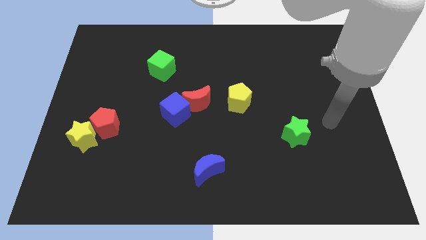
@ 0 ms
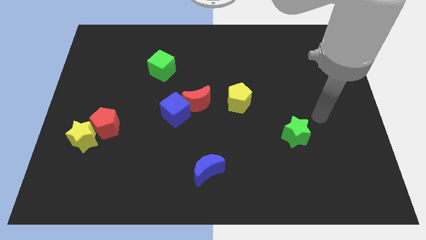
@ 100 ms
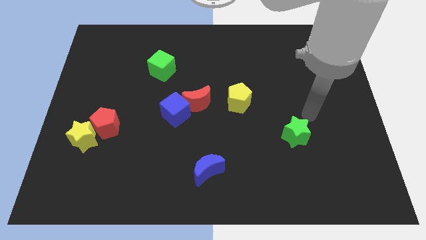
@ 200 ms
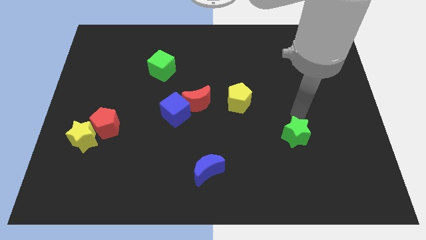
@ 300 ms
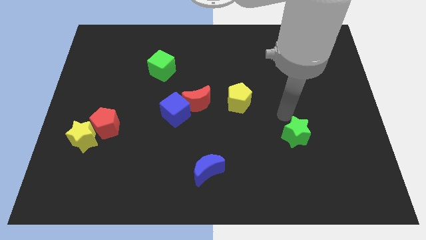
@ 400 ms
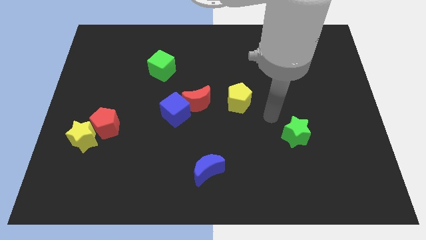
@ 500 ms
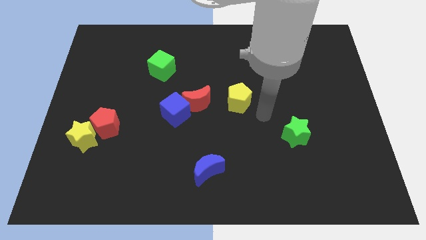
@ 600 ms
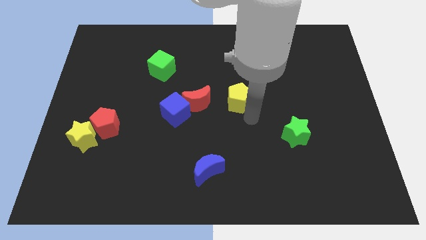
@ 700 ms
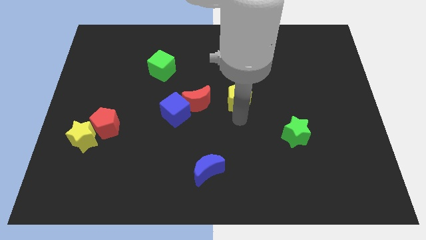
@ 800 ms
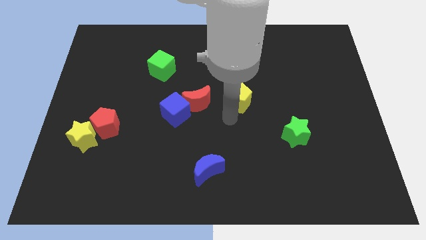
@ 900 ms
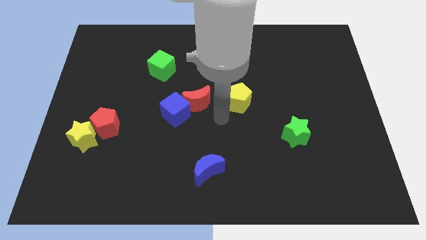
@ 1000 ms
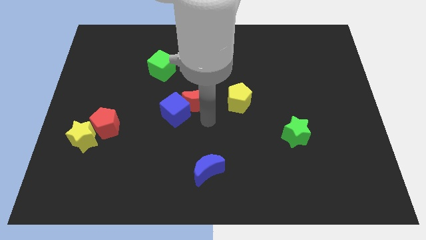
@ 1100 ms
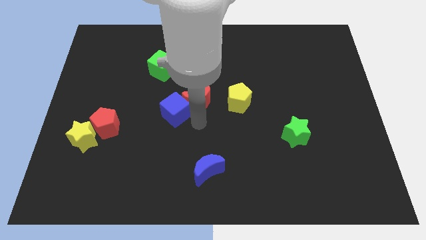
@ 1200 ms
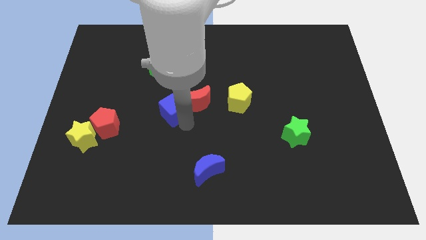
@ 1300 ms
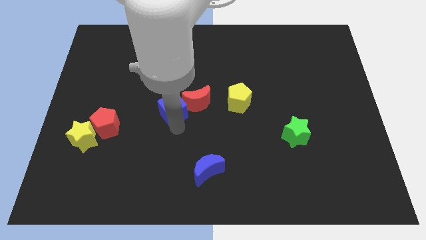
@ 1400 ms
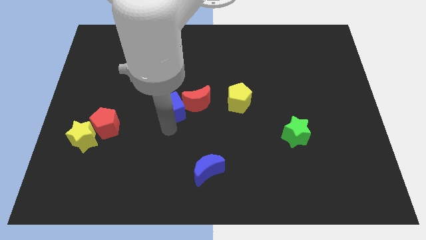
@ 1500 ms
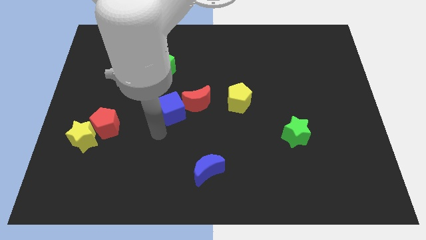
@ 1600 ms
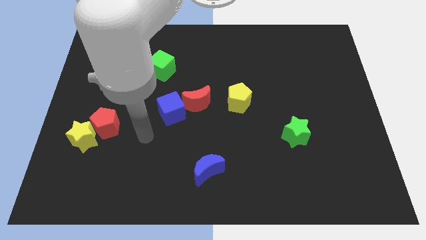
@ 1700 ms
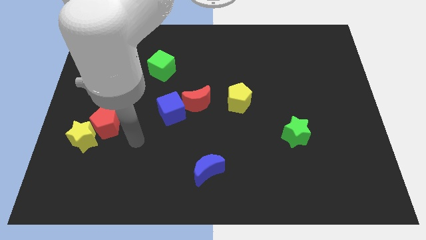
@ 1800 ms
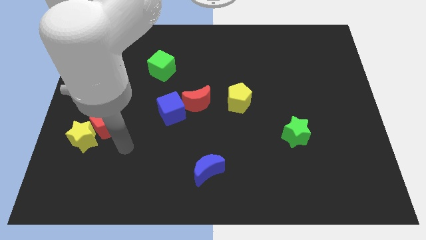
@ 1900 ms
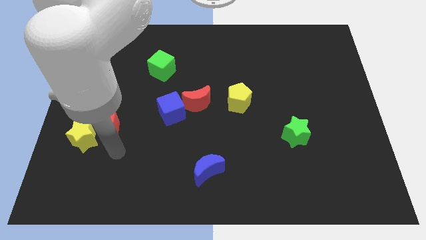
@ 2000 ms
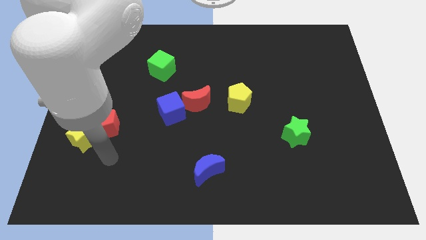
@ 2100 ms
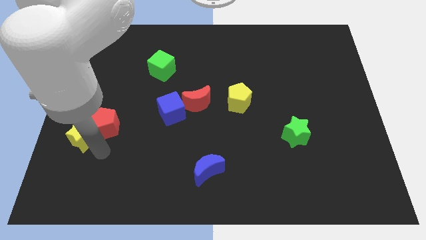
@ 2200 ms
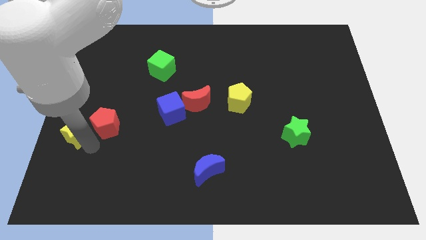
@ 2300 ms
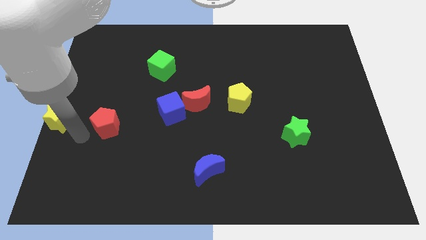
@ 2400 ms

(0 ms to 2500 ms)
pull the red pentagon apart from the yellow star

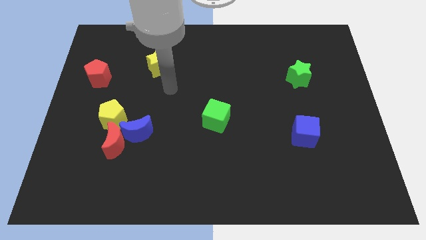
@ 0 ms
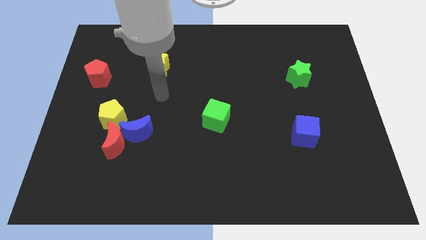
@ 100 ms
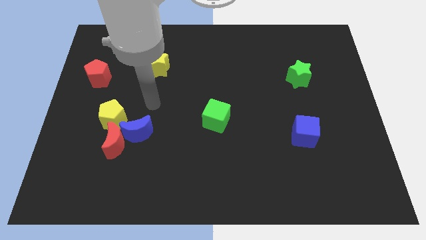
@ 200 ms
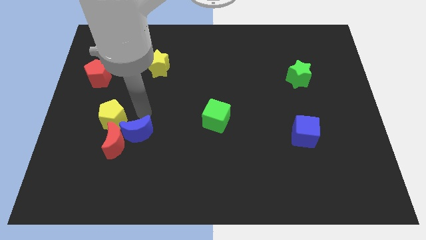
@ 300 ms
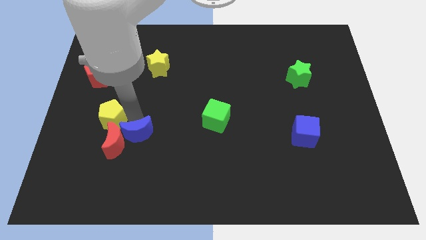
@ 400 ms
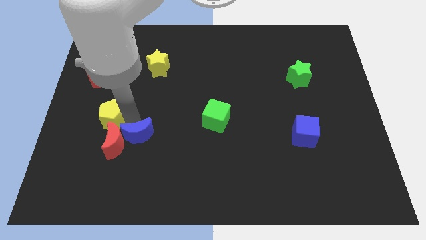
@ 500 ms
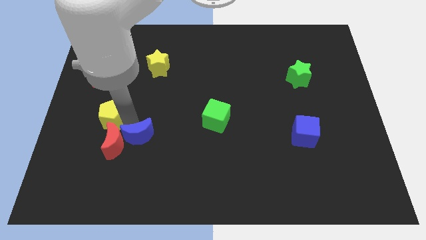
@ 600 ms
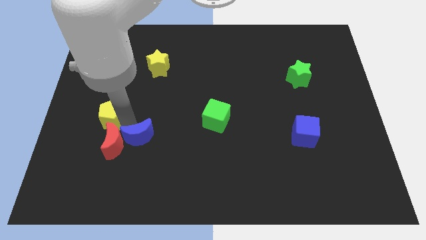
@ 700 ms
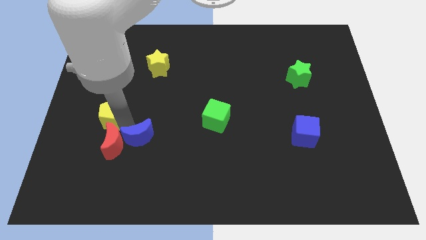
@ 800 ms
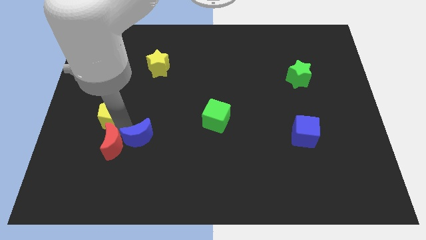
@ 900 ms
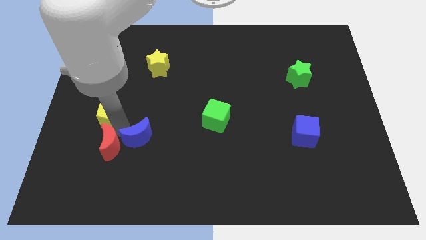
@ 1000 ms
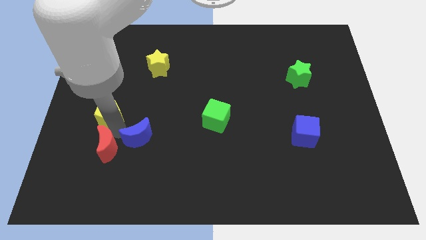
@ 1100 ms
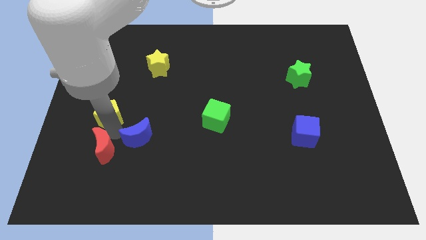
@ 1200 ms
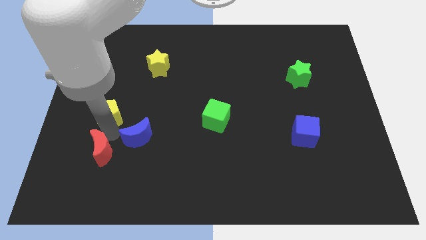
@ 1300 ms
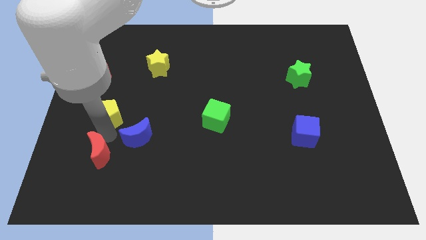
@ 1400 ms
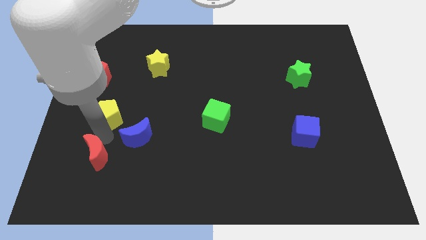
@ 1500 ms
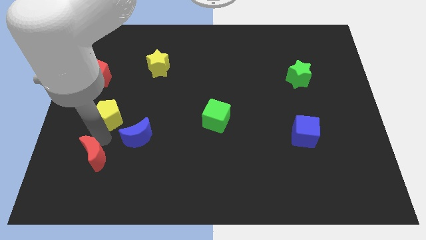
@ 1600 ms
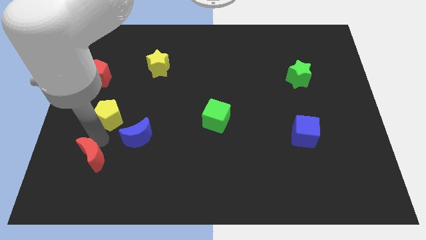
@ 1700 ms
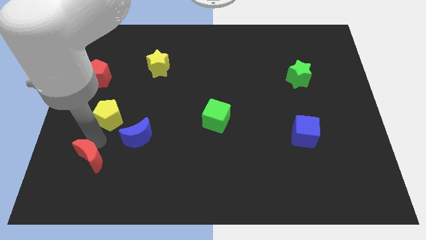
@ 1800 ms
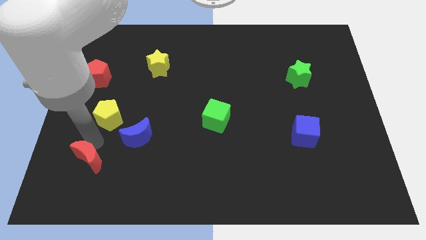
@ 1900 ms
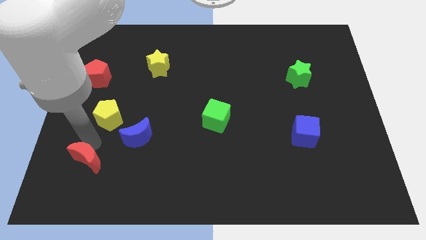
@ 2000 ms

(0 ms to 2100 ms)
move the red moon away from the blue moon and yellow pentagon

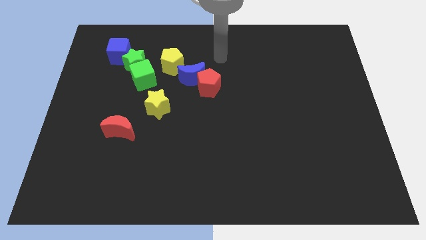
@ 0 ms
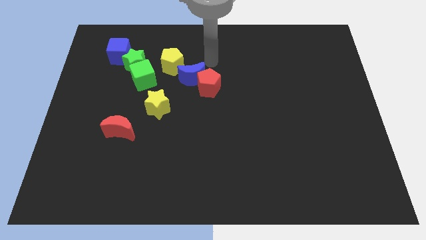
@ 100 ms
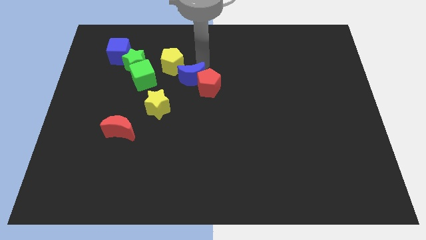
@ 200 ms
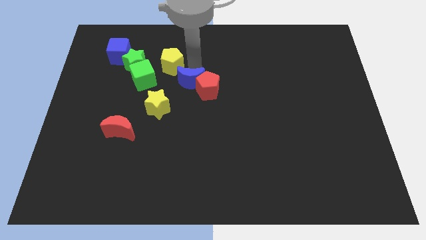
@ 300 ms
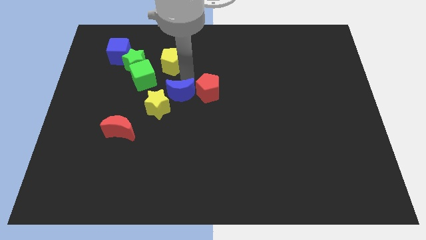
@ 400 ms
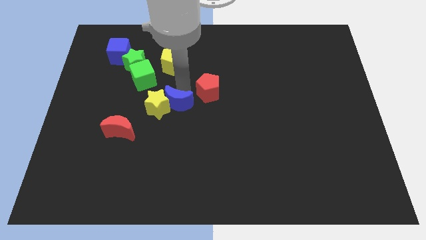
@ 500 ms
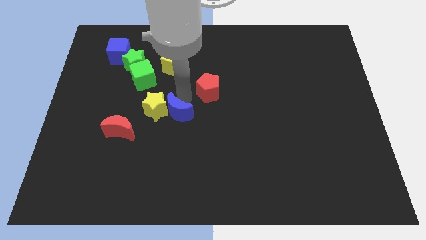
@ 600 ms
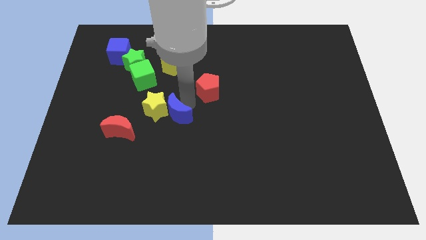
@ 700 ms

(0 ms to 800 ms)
move the red pentagon away from the blue moon

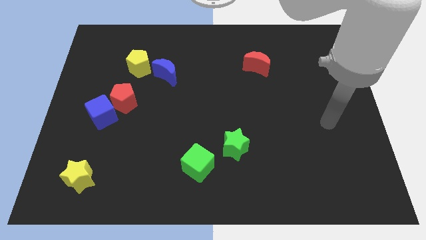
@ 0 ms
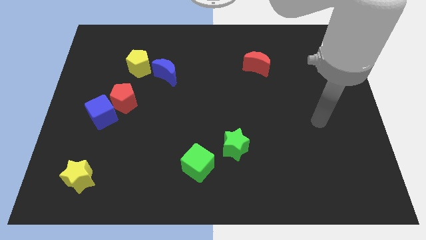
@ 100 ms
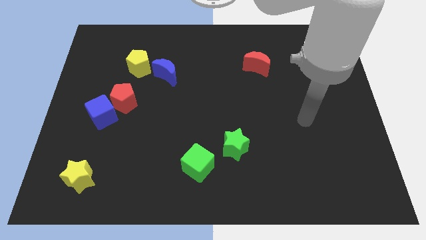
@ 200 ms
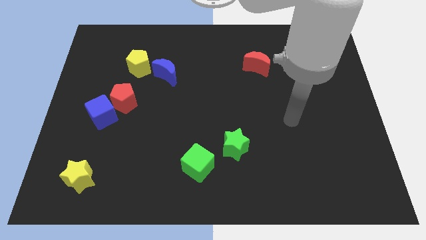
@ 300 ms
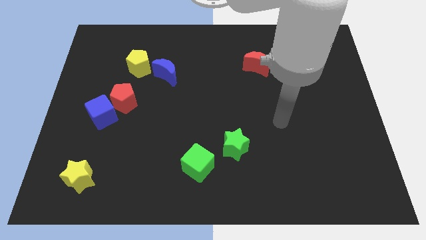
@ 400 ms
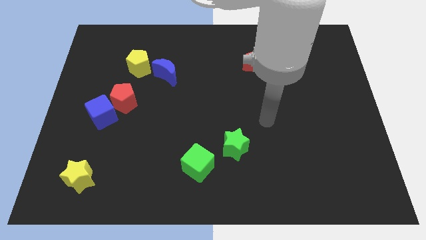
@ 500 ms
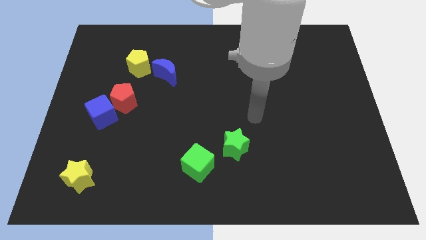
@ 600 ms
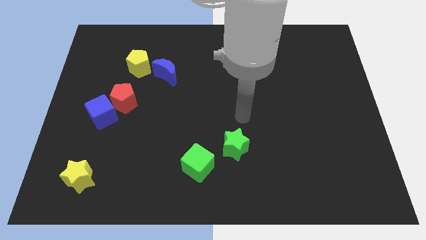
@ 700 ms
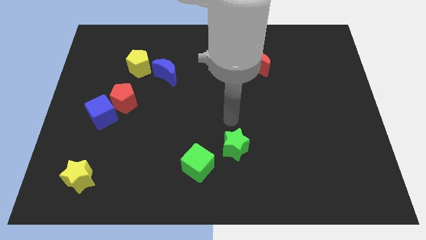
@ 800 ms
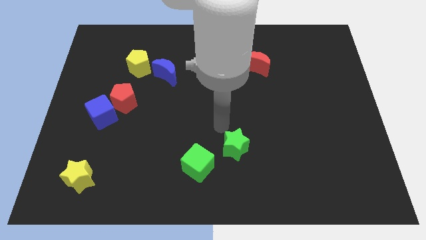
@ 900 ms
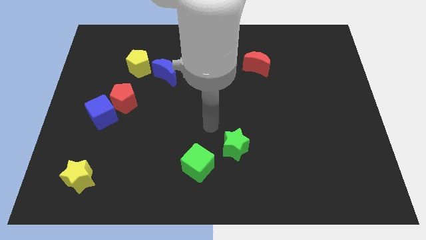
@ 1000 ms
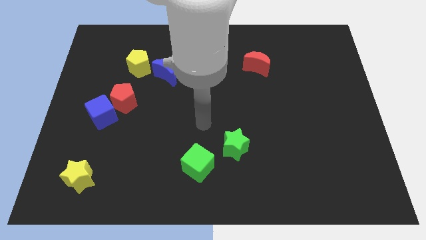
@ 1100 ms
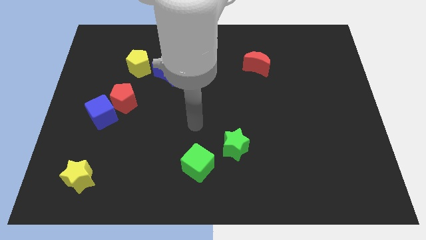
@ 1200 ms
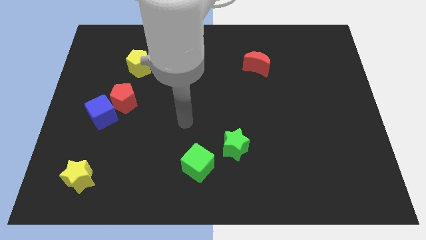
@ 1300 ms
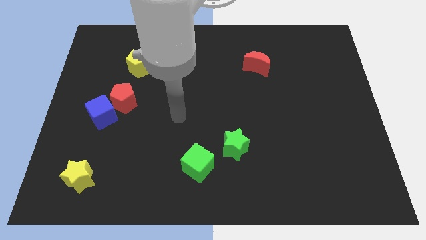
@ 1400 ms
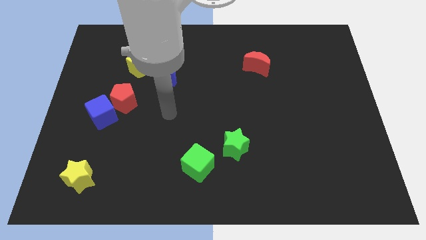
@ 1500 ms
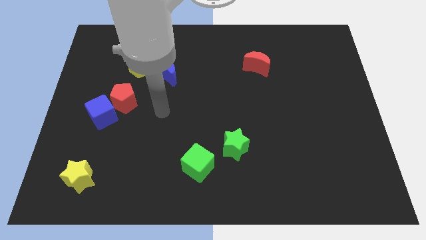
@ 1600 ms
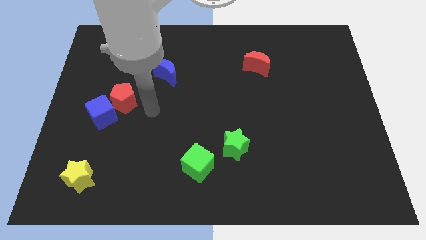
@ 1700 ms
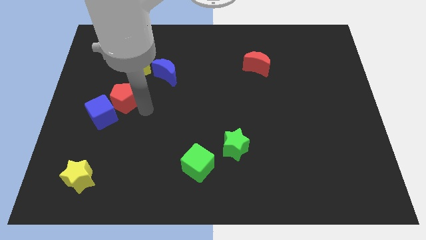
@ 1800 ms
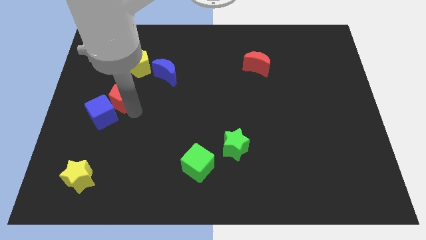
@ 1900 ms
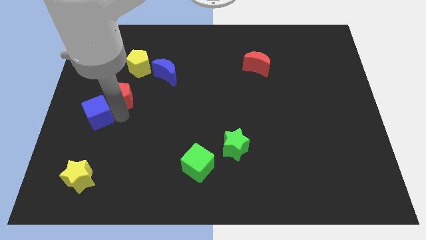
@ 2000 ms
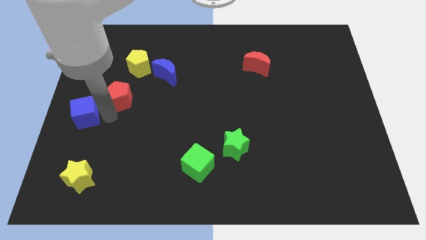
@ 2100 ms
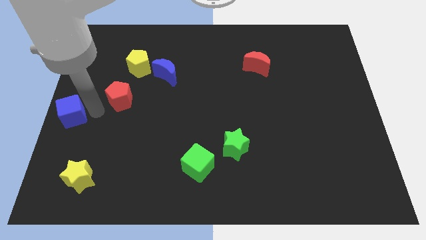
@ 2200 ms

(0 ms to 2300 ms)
move the red pentagon away from the blue cube

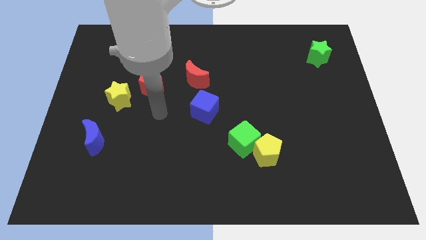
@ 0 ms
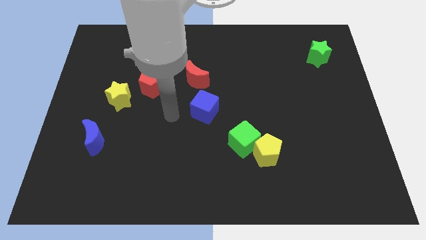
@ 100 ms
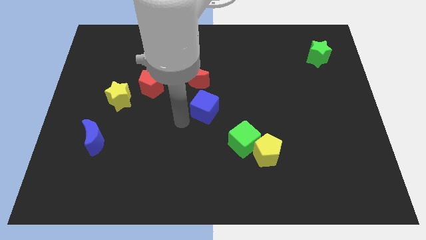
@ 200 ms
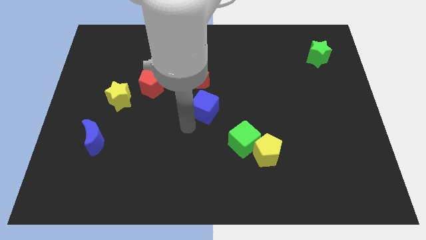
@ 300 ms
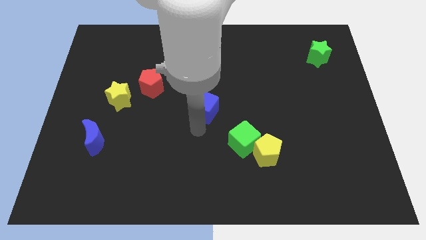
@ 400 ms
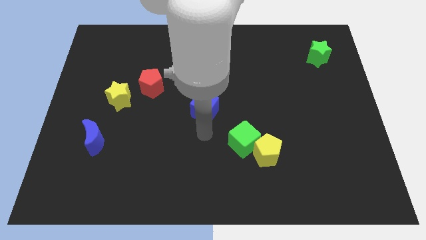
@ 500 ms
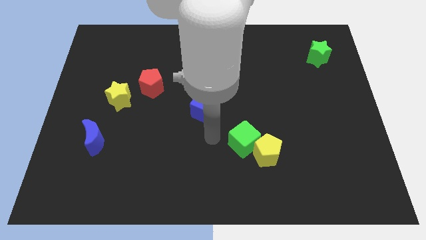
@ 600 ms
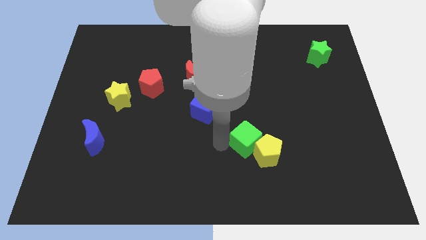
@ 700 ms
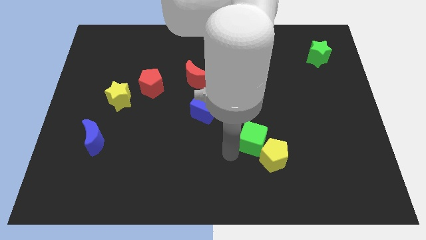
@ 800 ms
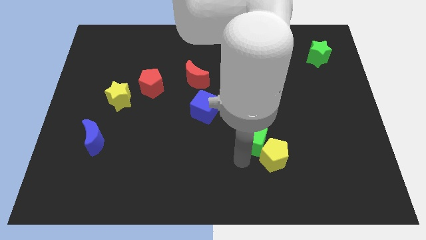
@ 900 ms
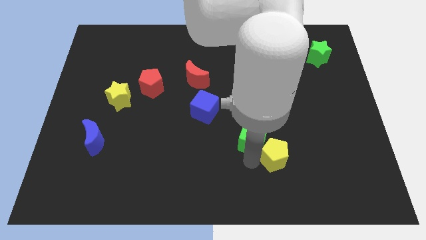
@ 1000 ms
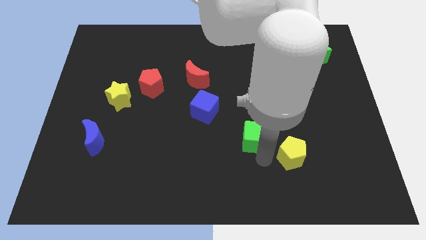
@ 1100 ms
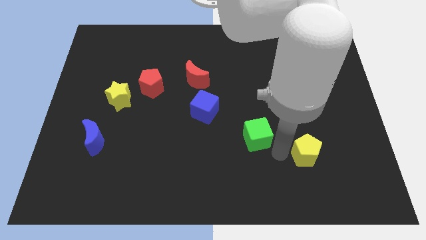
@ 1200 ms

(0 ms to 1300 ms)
pull the green cube apart from the yellow pentagon

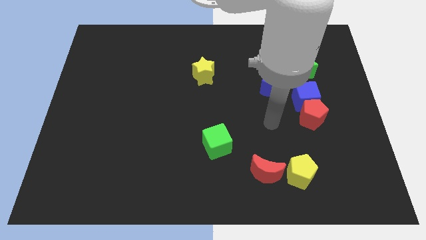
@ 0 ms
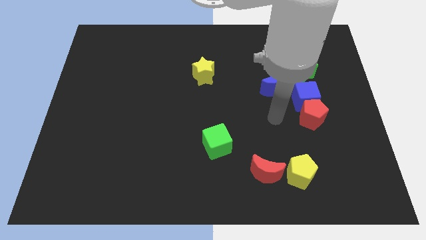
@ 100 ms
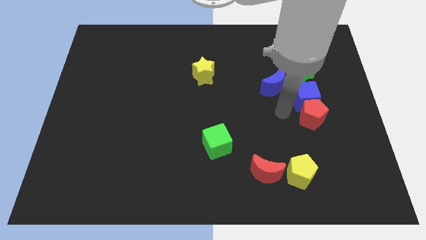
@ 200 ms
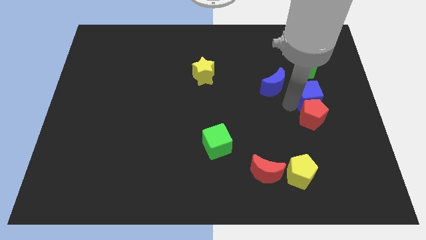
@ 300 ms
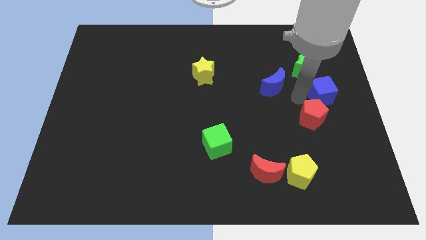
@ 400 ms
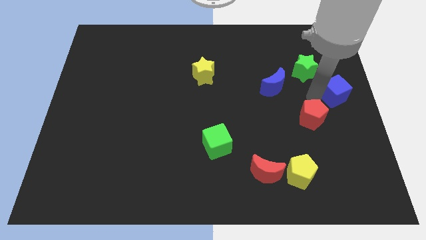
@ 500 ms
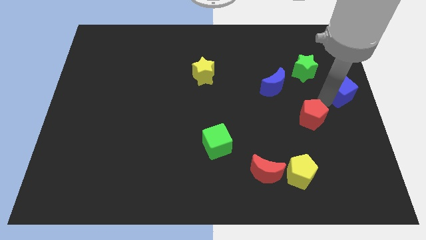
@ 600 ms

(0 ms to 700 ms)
separate the red pentagon from the blue cube
